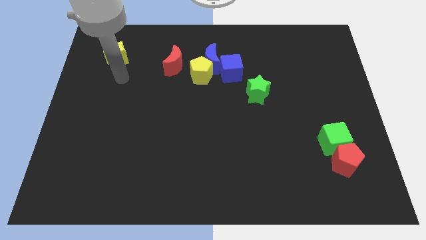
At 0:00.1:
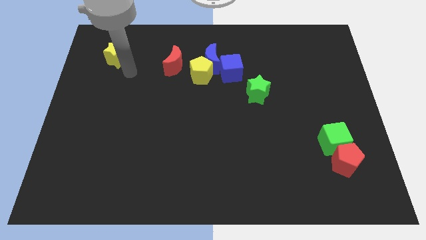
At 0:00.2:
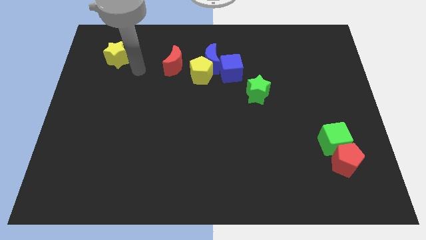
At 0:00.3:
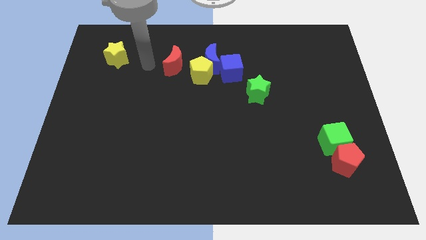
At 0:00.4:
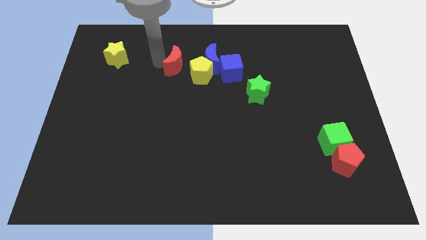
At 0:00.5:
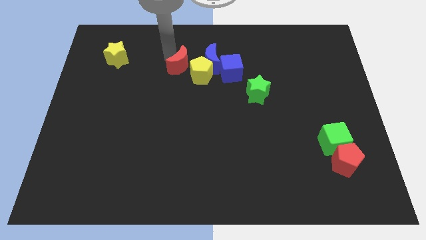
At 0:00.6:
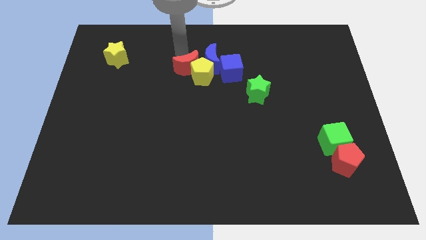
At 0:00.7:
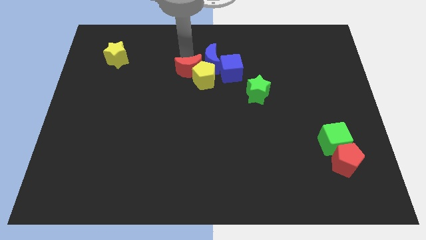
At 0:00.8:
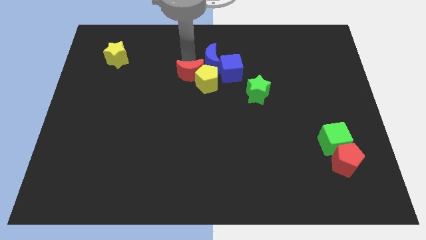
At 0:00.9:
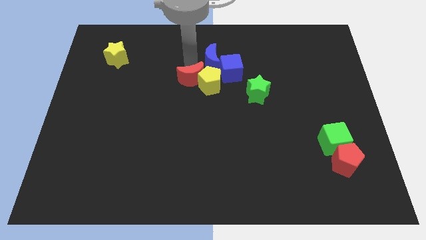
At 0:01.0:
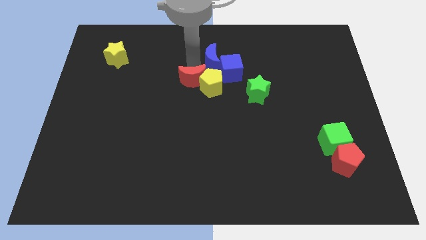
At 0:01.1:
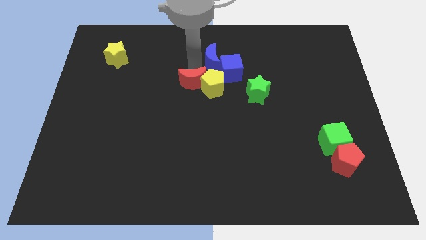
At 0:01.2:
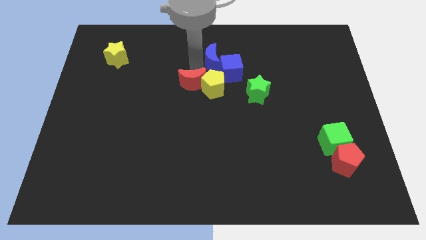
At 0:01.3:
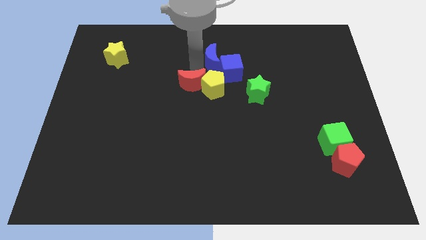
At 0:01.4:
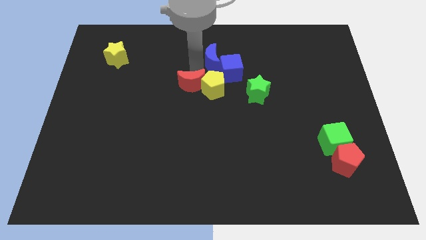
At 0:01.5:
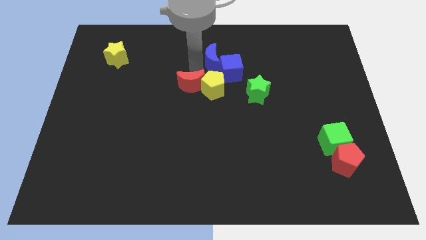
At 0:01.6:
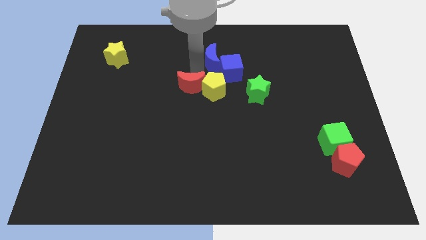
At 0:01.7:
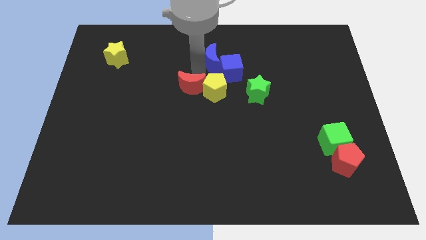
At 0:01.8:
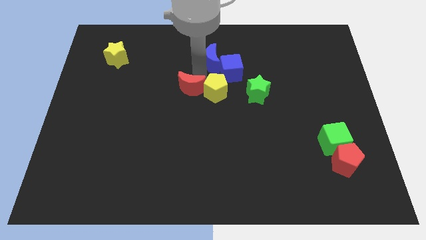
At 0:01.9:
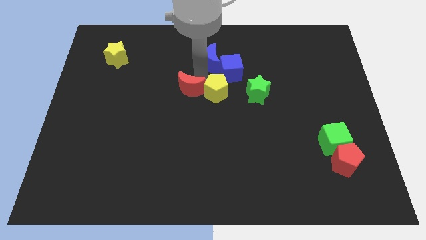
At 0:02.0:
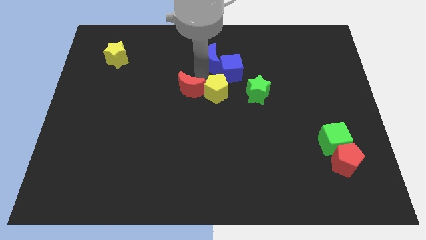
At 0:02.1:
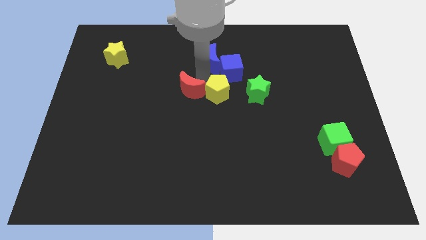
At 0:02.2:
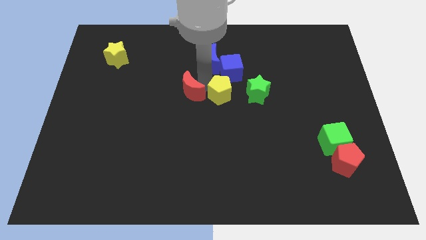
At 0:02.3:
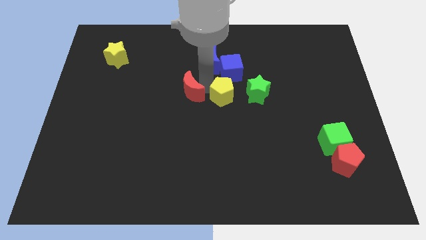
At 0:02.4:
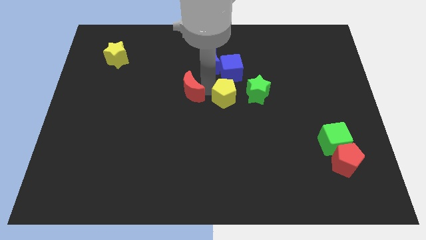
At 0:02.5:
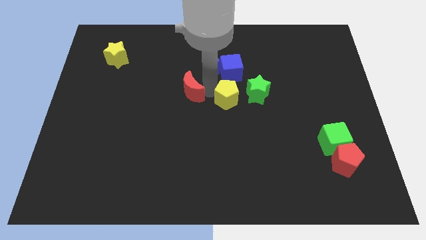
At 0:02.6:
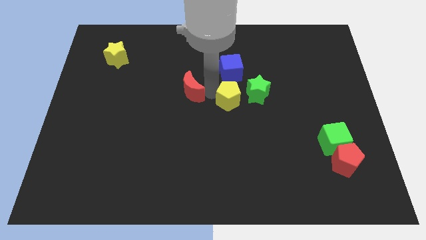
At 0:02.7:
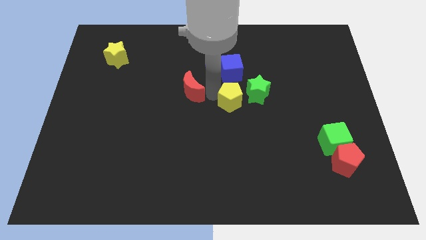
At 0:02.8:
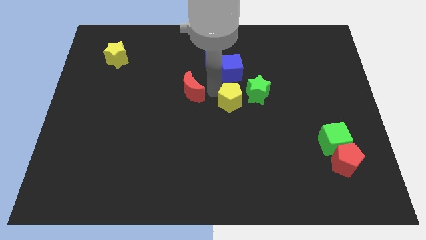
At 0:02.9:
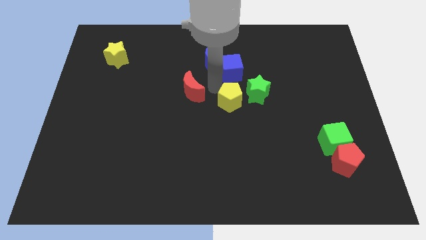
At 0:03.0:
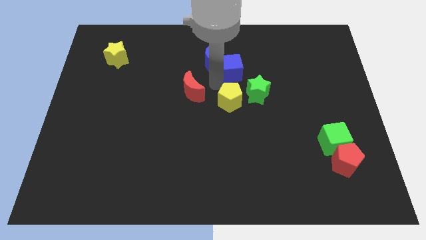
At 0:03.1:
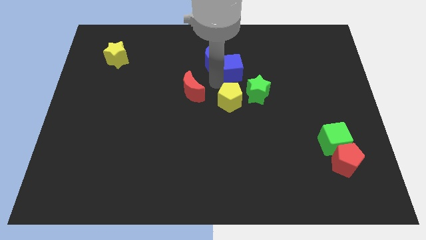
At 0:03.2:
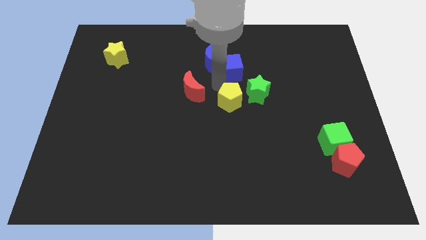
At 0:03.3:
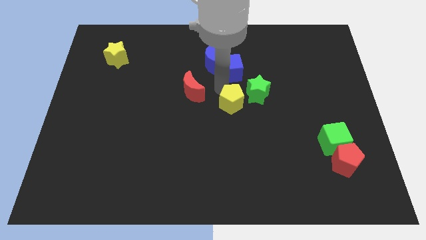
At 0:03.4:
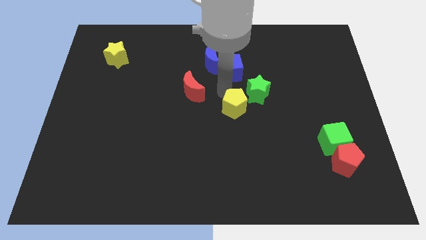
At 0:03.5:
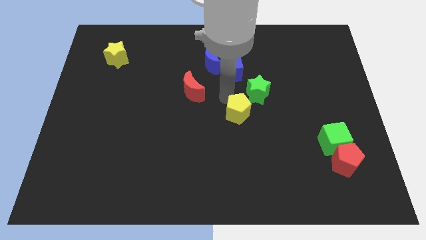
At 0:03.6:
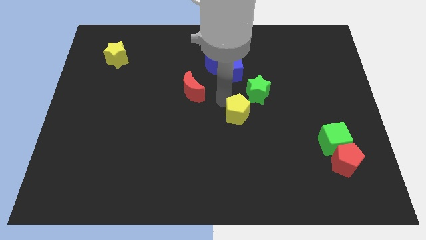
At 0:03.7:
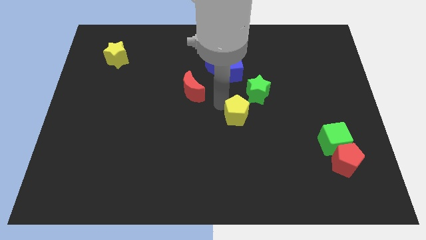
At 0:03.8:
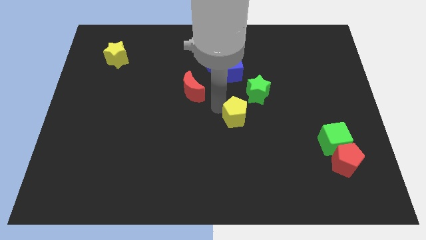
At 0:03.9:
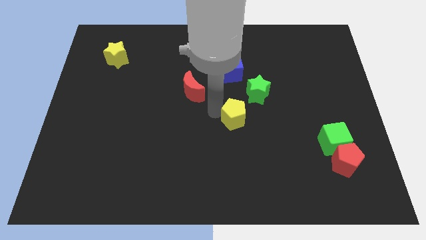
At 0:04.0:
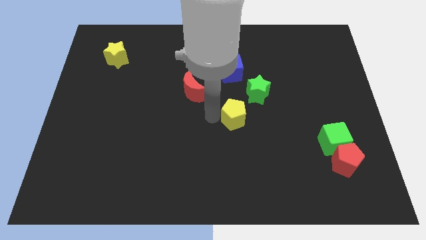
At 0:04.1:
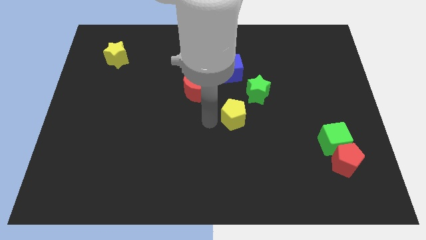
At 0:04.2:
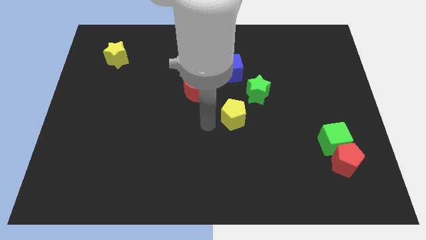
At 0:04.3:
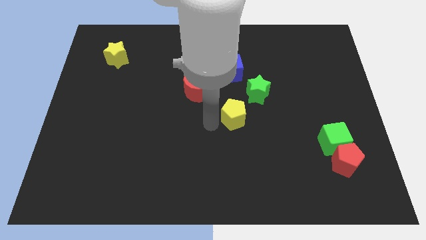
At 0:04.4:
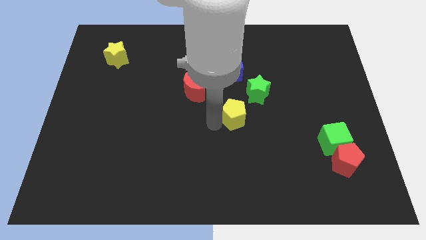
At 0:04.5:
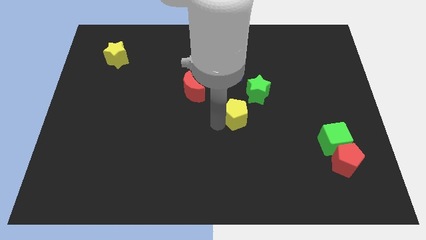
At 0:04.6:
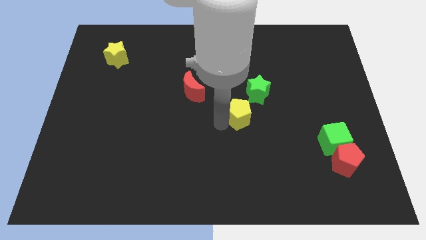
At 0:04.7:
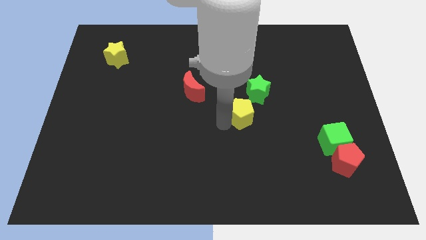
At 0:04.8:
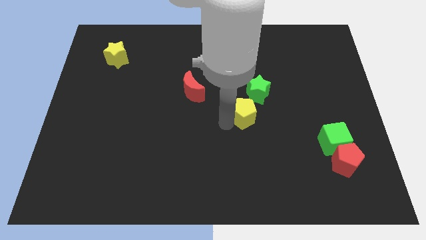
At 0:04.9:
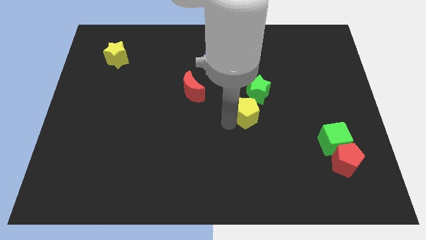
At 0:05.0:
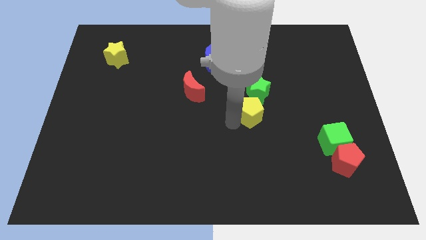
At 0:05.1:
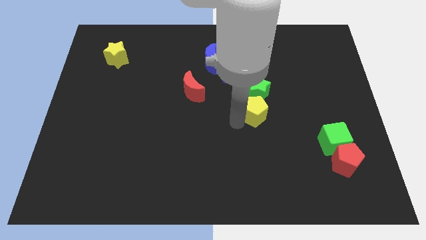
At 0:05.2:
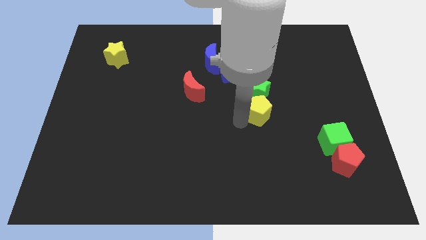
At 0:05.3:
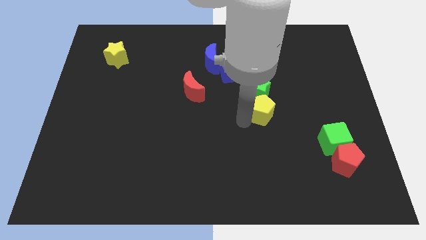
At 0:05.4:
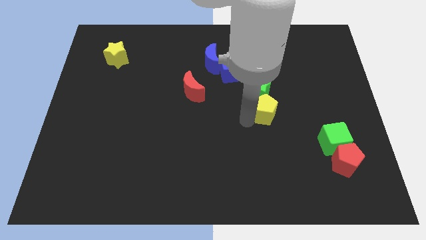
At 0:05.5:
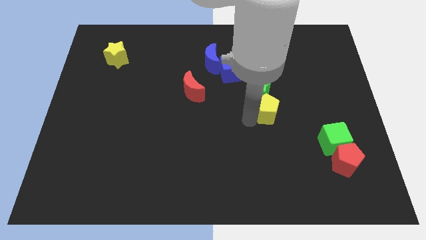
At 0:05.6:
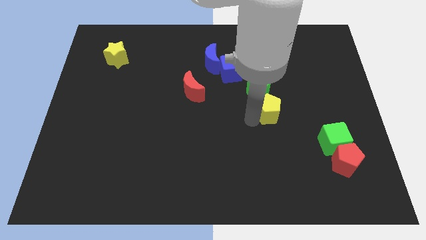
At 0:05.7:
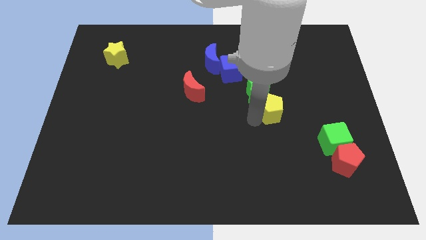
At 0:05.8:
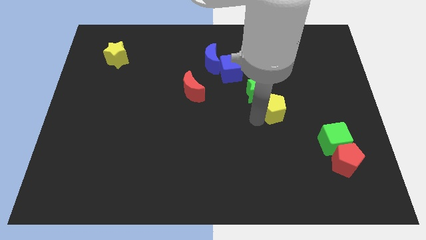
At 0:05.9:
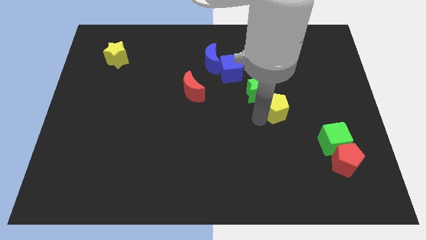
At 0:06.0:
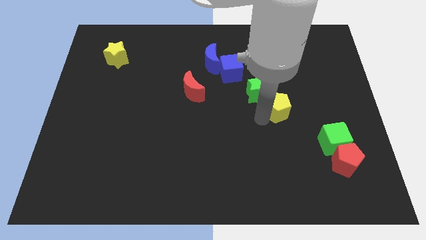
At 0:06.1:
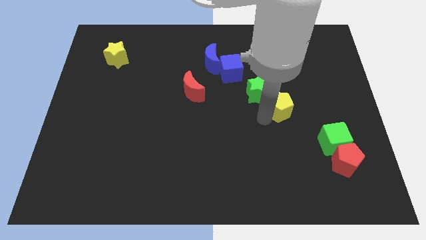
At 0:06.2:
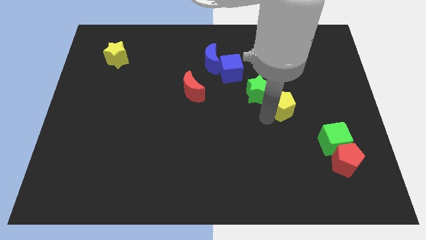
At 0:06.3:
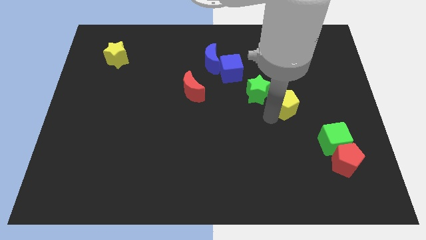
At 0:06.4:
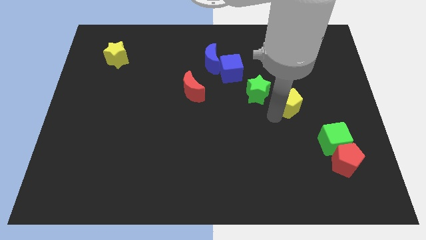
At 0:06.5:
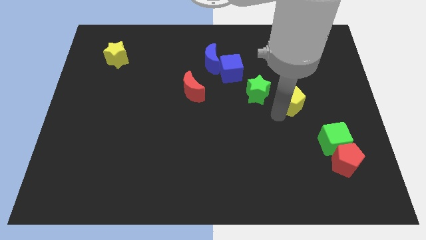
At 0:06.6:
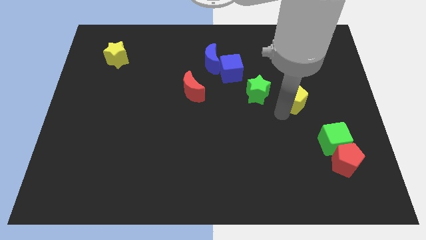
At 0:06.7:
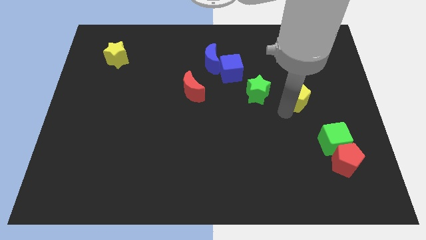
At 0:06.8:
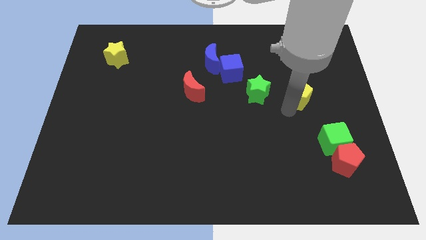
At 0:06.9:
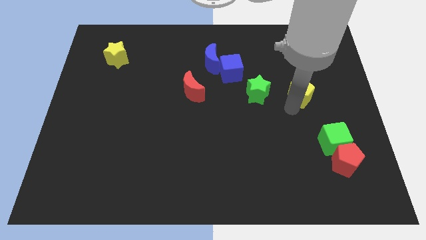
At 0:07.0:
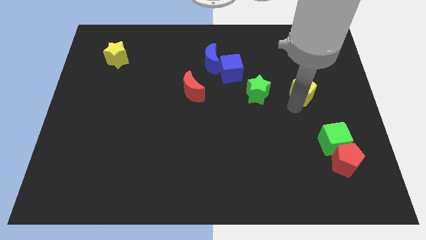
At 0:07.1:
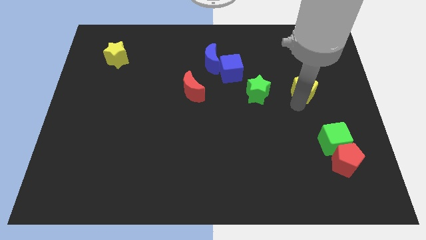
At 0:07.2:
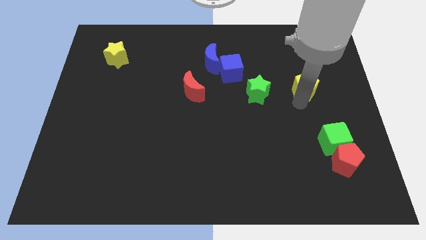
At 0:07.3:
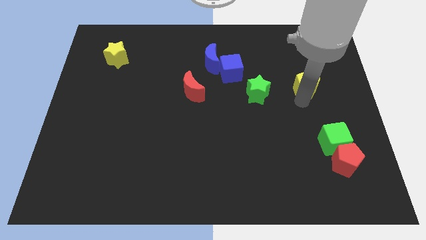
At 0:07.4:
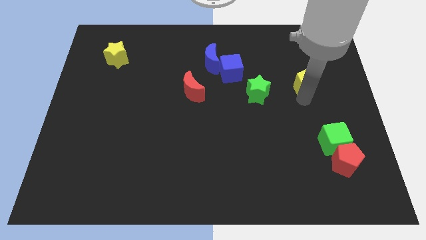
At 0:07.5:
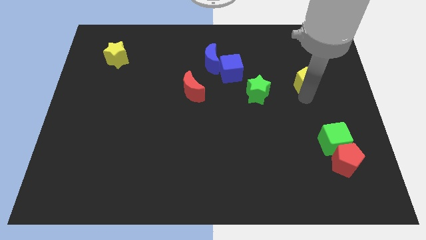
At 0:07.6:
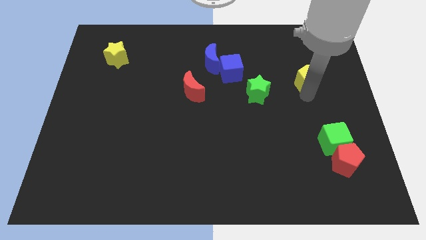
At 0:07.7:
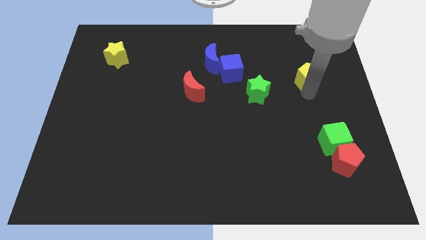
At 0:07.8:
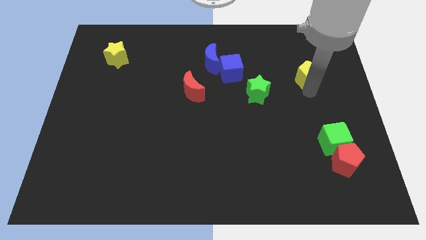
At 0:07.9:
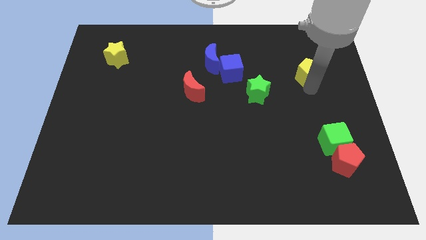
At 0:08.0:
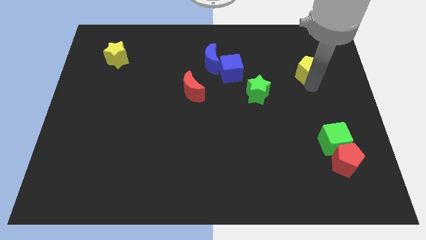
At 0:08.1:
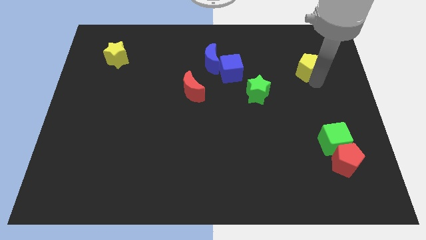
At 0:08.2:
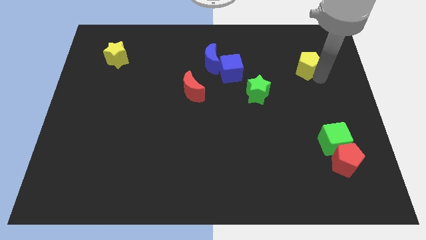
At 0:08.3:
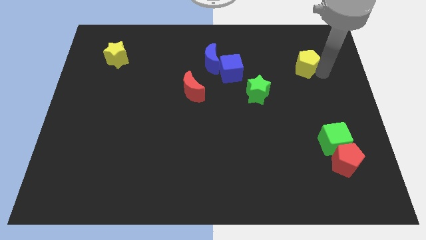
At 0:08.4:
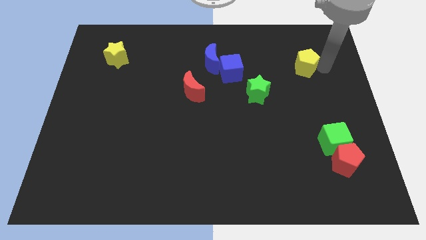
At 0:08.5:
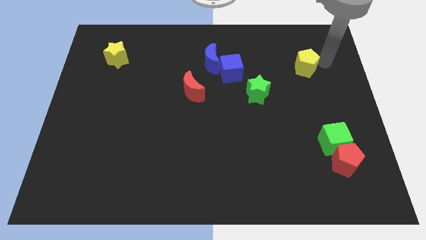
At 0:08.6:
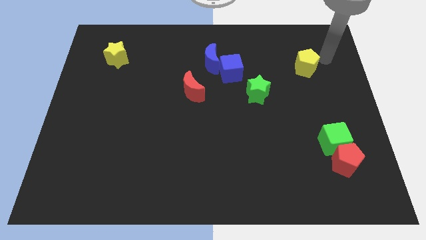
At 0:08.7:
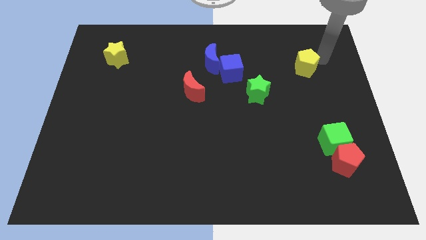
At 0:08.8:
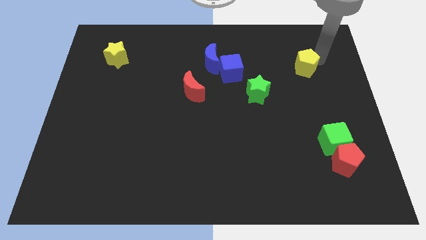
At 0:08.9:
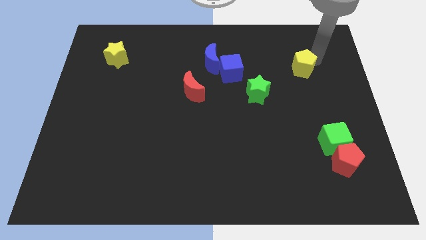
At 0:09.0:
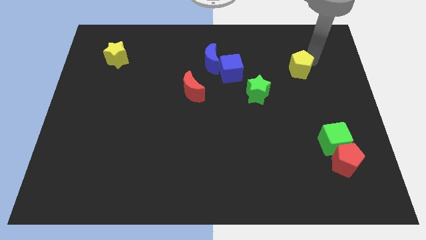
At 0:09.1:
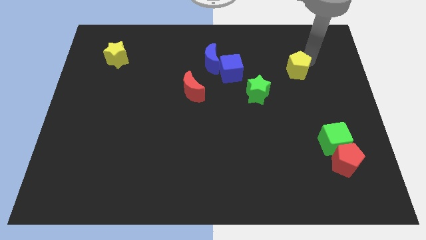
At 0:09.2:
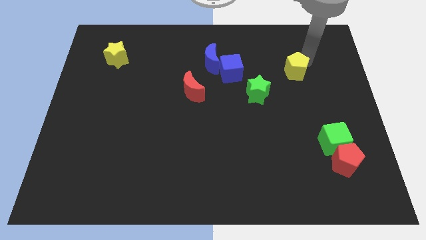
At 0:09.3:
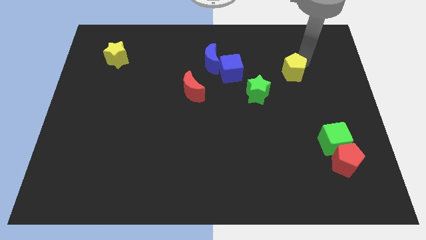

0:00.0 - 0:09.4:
slide the yellow pentagon diagonally up and to the right of the green star
